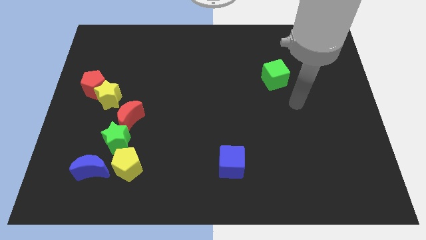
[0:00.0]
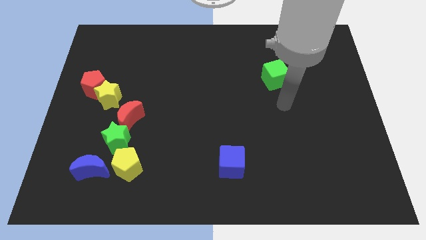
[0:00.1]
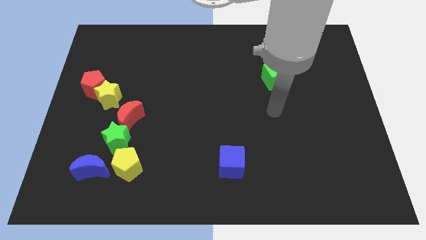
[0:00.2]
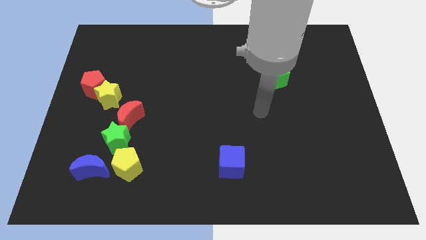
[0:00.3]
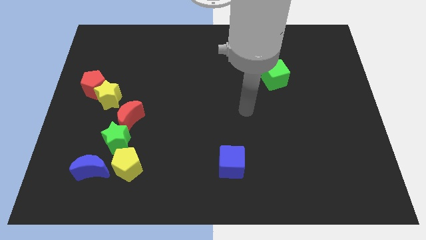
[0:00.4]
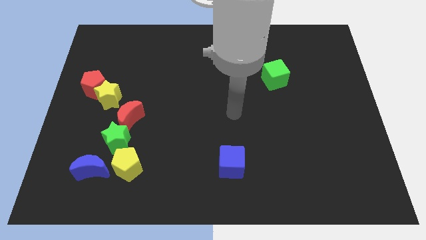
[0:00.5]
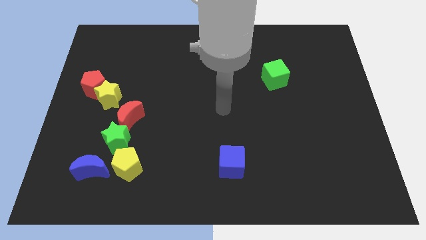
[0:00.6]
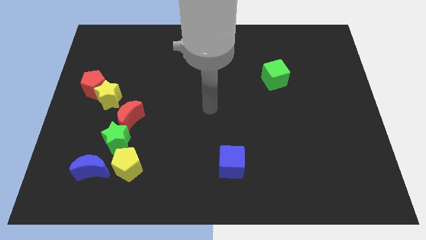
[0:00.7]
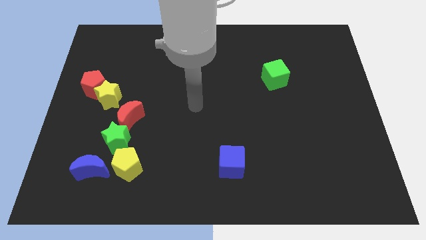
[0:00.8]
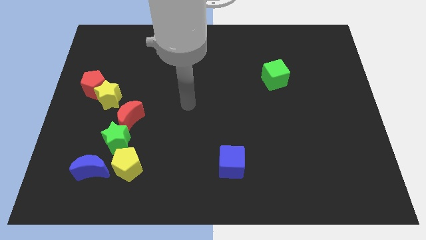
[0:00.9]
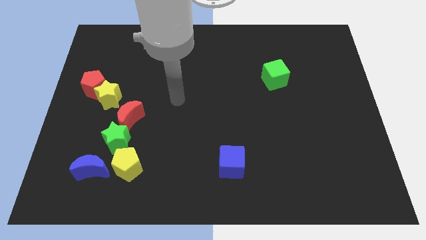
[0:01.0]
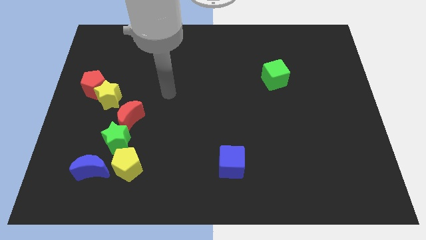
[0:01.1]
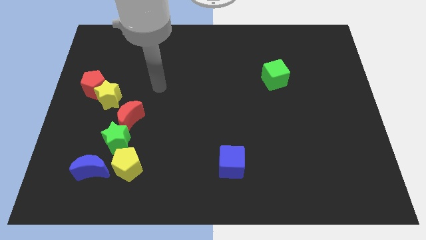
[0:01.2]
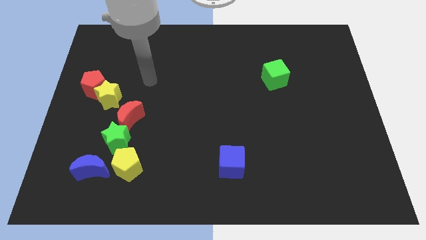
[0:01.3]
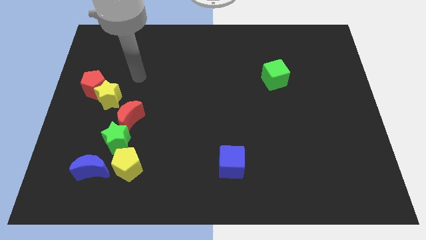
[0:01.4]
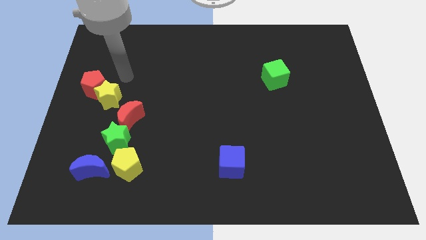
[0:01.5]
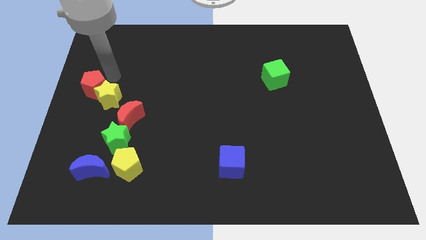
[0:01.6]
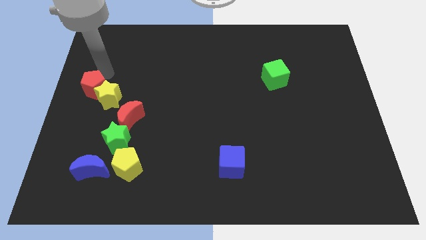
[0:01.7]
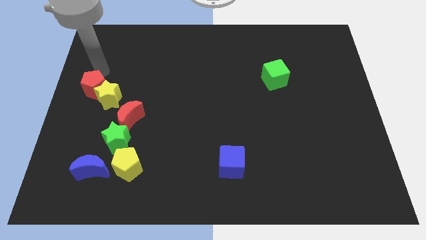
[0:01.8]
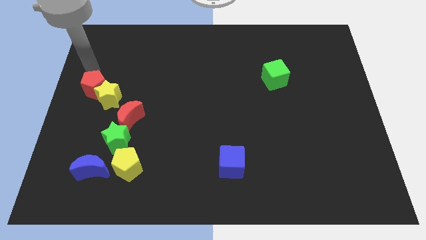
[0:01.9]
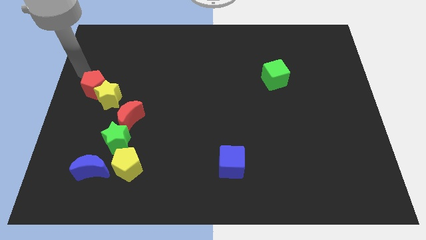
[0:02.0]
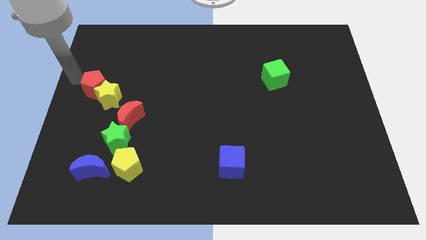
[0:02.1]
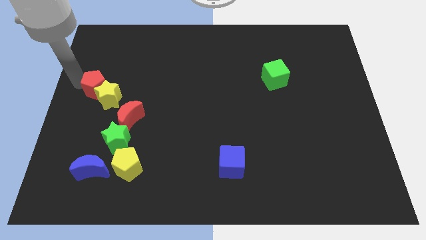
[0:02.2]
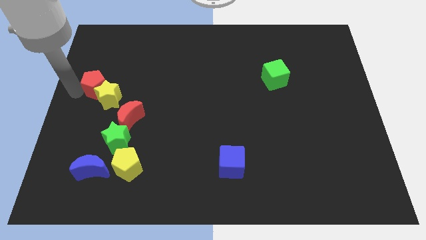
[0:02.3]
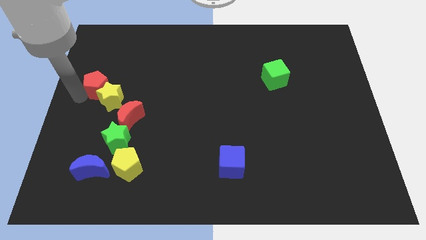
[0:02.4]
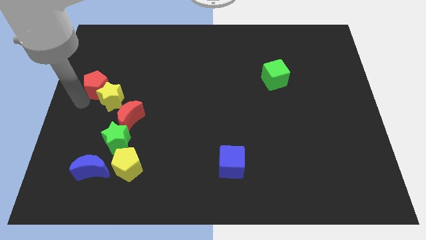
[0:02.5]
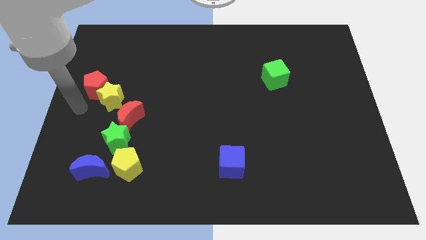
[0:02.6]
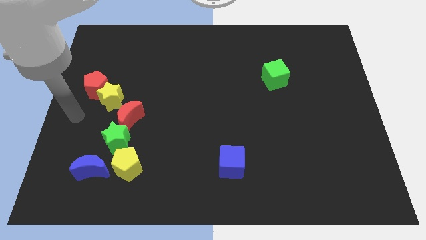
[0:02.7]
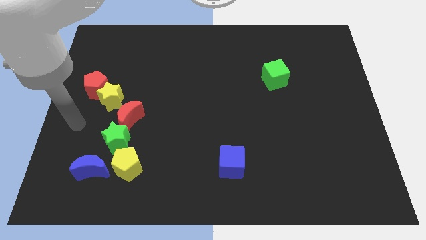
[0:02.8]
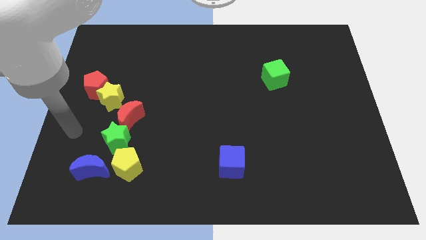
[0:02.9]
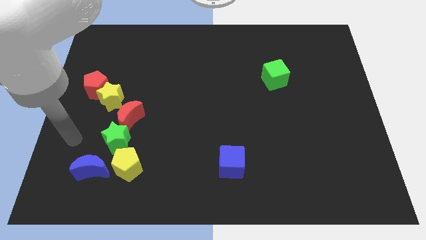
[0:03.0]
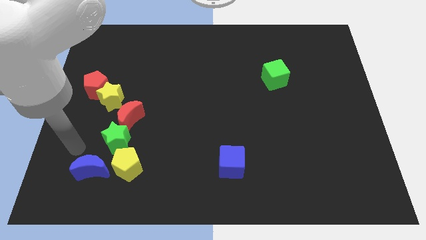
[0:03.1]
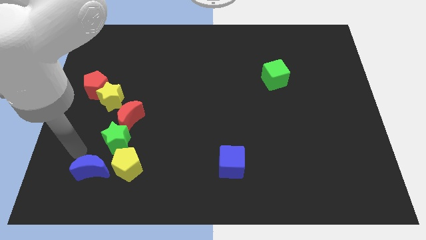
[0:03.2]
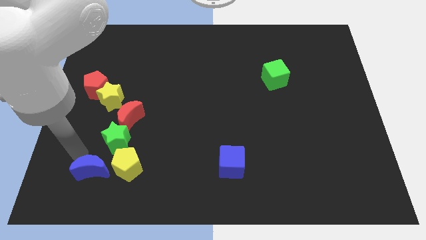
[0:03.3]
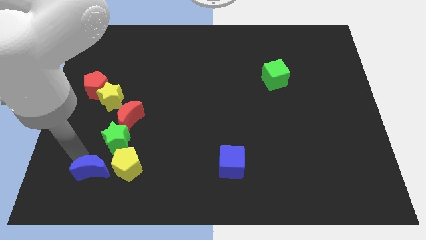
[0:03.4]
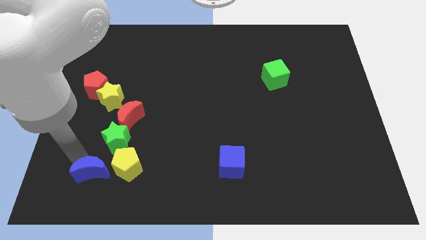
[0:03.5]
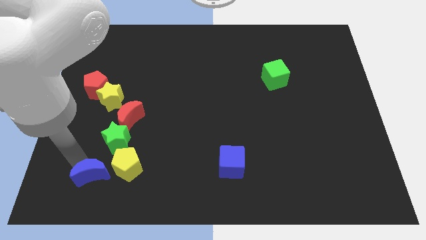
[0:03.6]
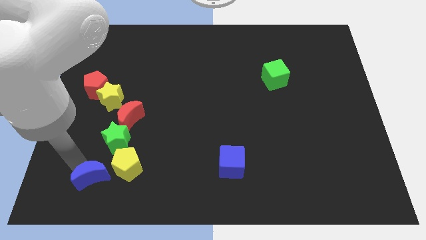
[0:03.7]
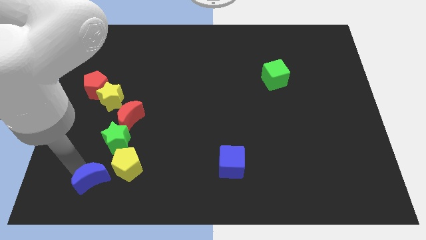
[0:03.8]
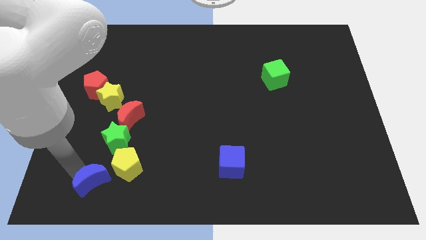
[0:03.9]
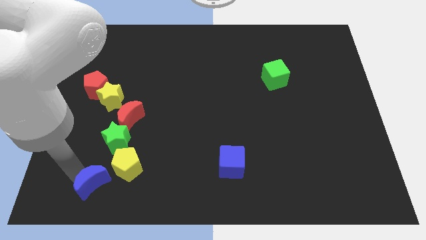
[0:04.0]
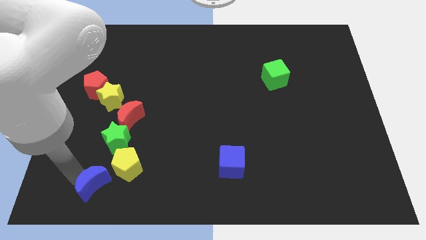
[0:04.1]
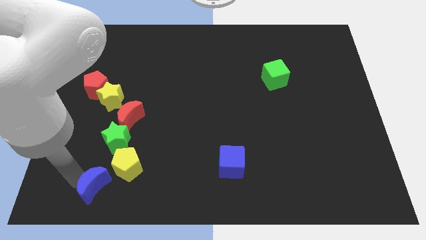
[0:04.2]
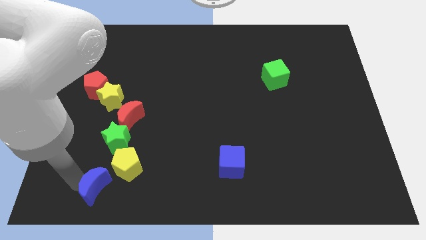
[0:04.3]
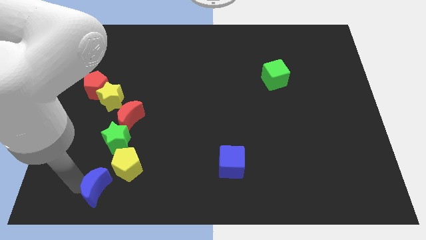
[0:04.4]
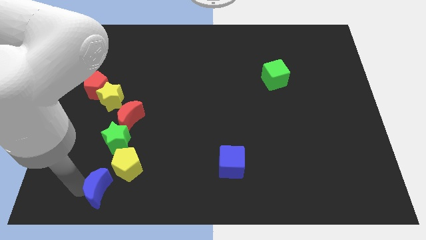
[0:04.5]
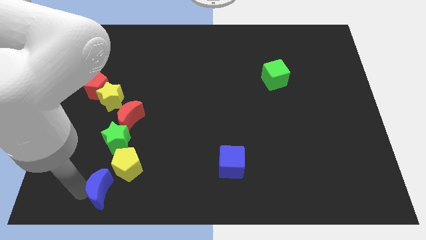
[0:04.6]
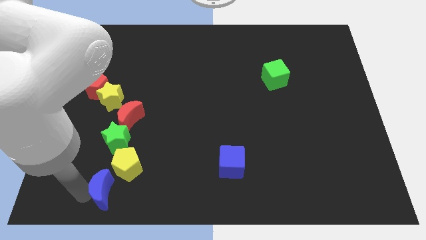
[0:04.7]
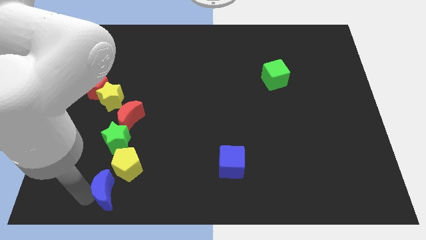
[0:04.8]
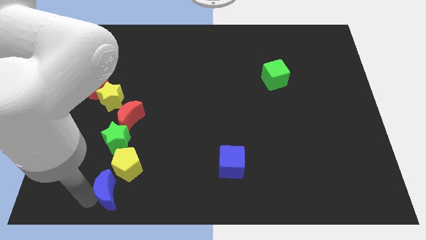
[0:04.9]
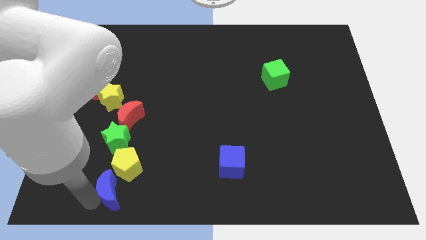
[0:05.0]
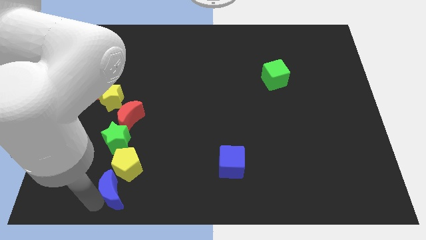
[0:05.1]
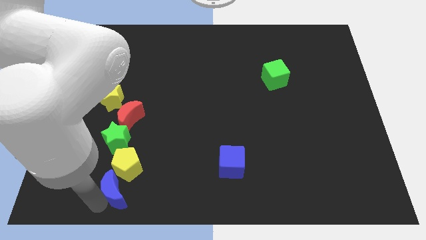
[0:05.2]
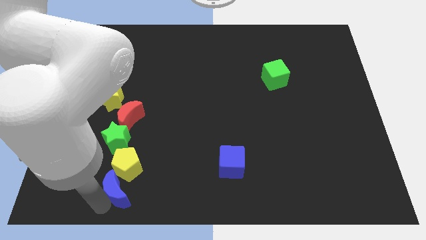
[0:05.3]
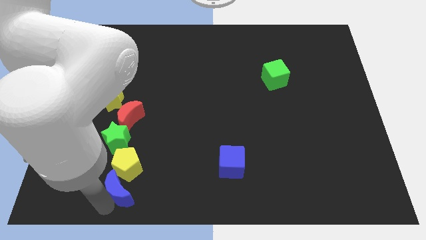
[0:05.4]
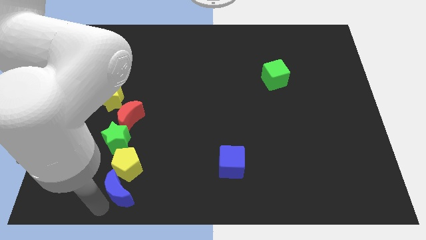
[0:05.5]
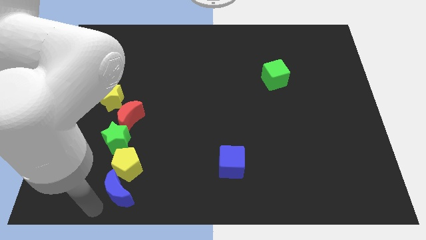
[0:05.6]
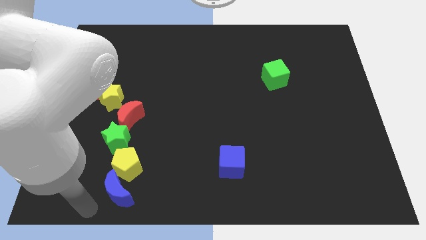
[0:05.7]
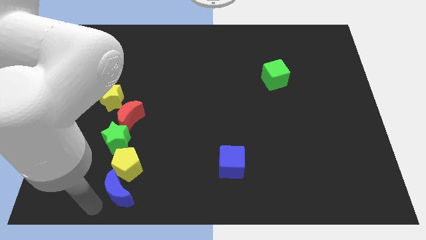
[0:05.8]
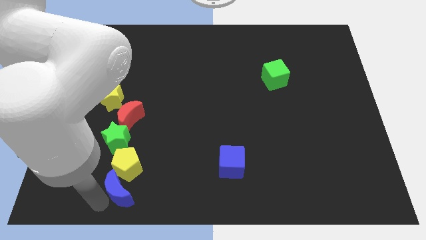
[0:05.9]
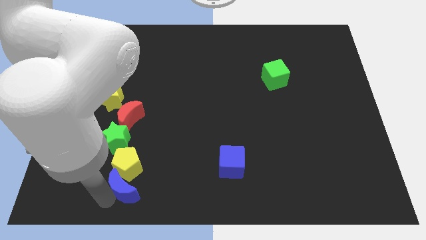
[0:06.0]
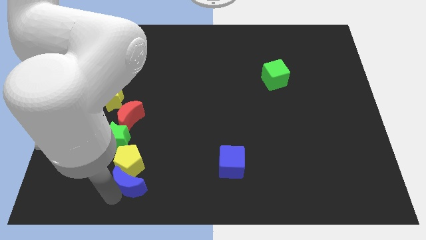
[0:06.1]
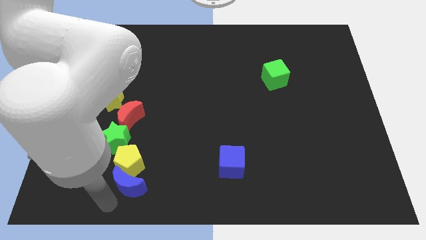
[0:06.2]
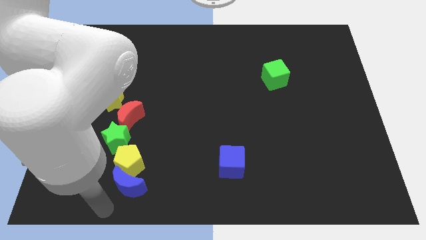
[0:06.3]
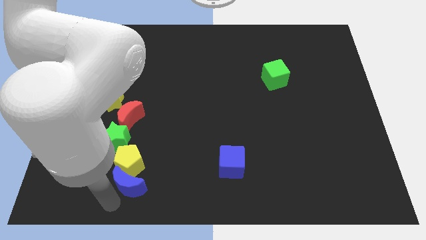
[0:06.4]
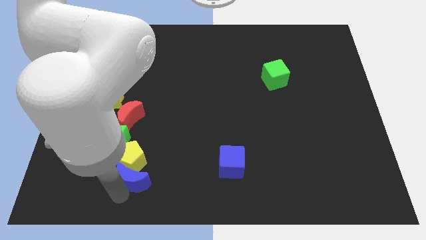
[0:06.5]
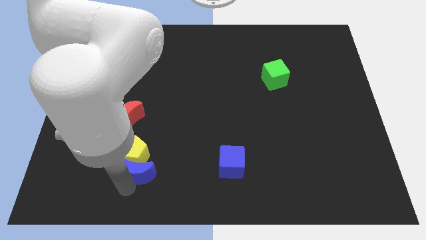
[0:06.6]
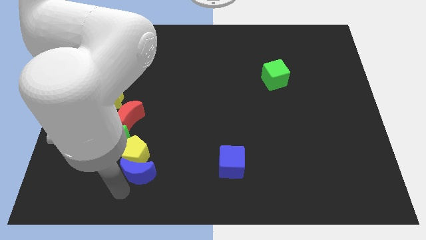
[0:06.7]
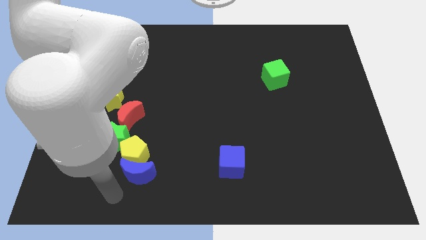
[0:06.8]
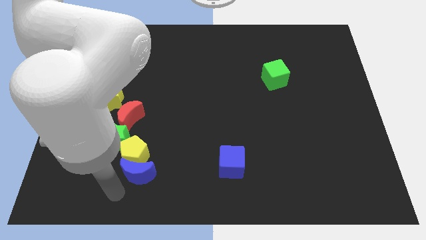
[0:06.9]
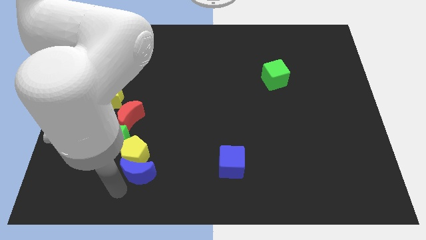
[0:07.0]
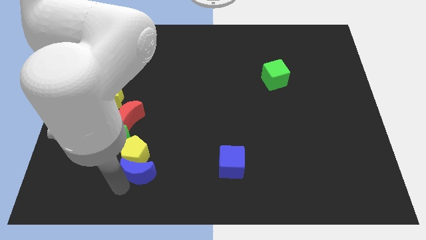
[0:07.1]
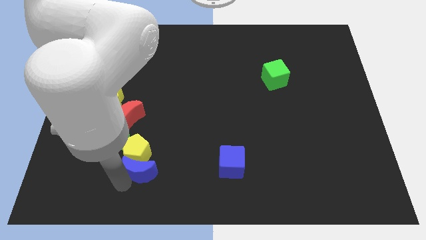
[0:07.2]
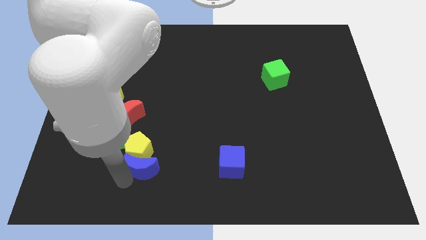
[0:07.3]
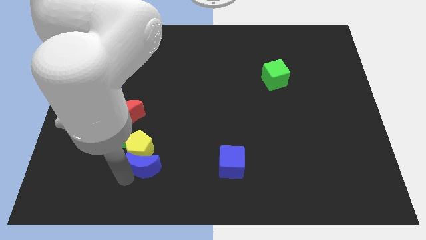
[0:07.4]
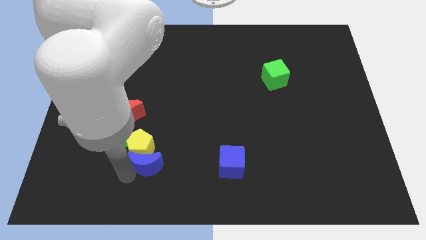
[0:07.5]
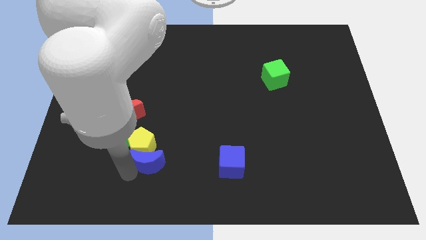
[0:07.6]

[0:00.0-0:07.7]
push the blue moon diagonally upwards and right slightly

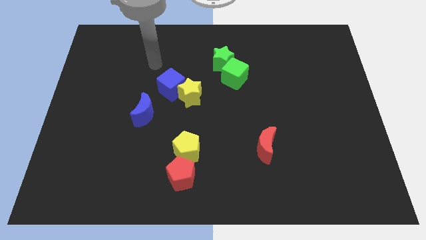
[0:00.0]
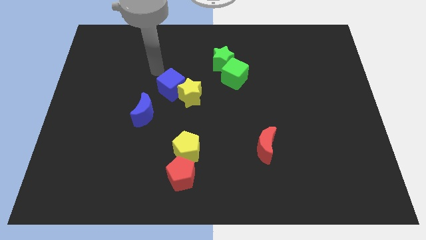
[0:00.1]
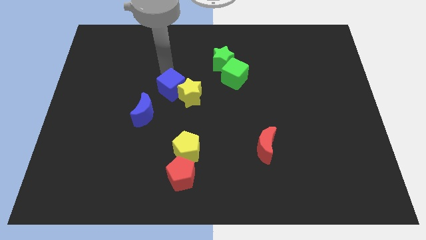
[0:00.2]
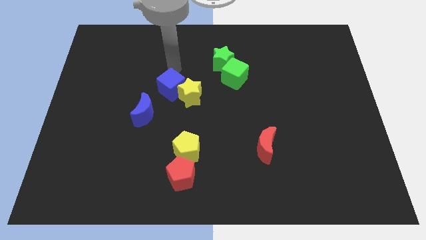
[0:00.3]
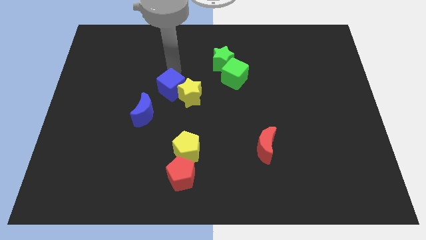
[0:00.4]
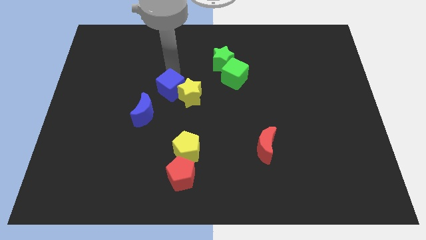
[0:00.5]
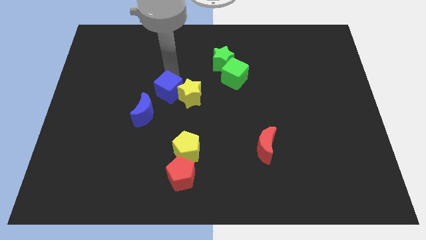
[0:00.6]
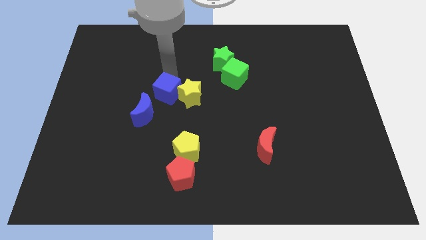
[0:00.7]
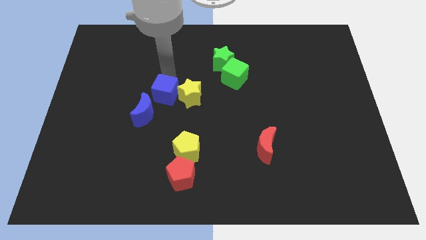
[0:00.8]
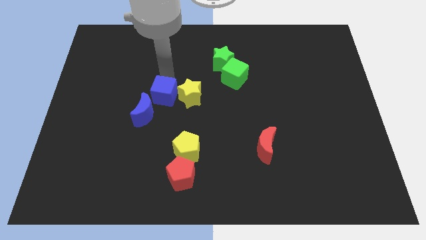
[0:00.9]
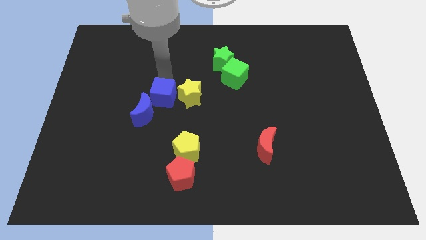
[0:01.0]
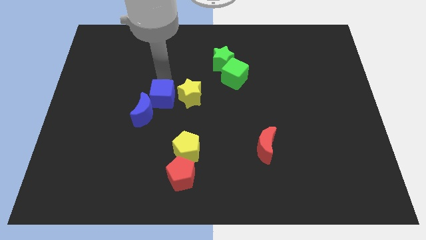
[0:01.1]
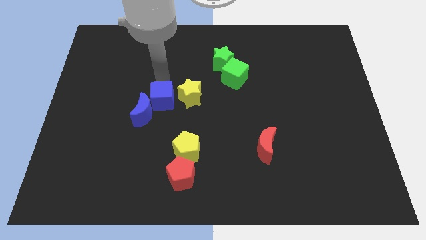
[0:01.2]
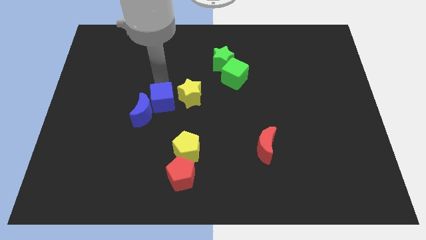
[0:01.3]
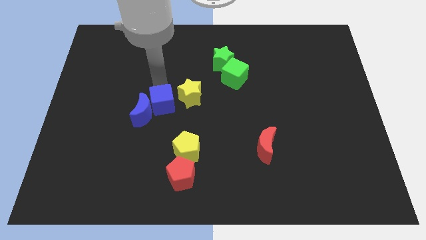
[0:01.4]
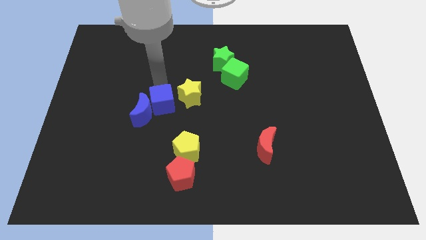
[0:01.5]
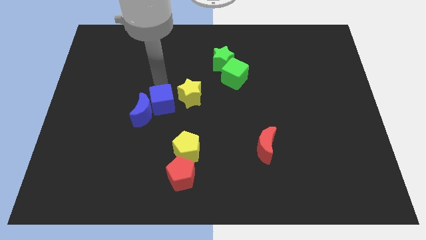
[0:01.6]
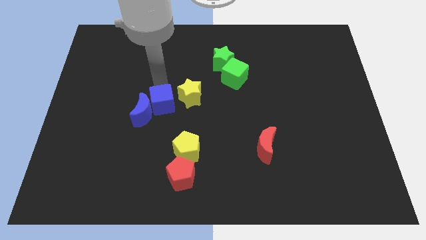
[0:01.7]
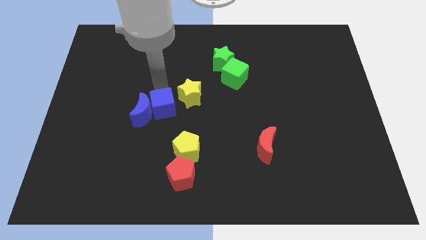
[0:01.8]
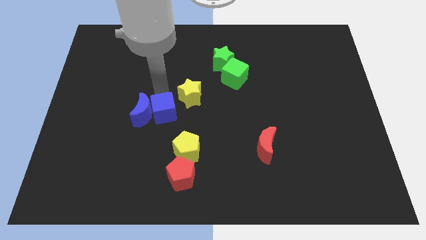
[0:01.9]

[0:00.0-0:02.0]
push the blue cube a bit down
